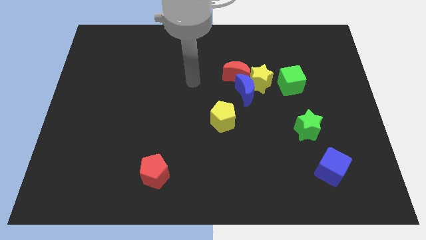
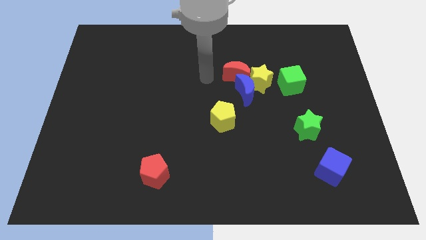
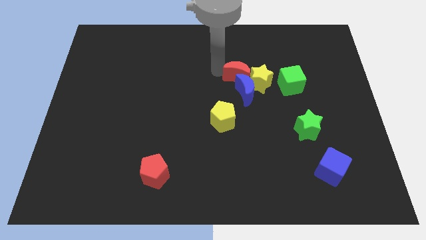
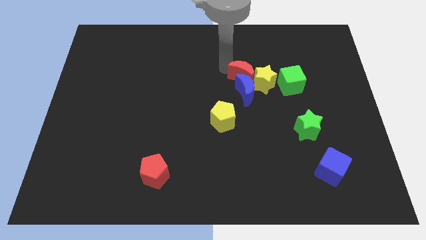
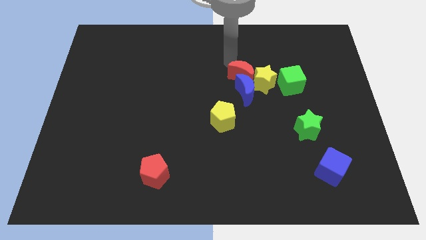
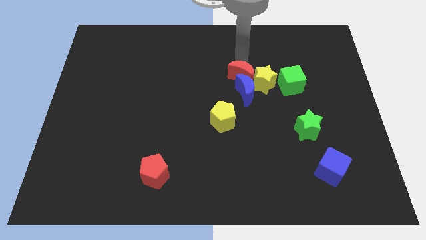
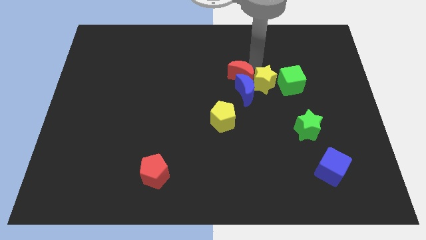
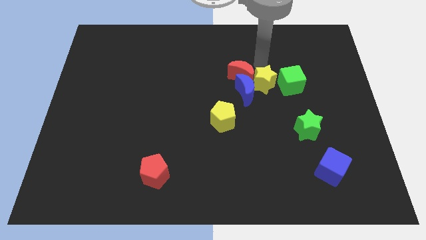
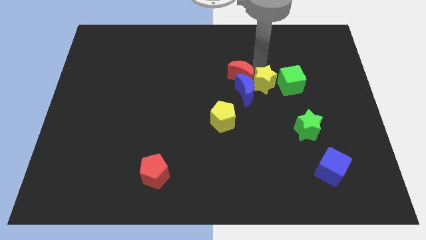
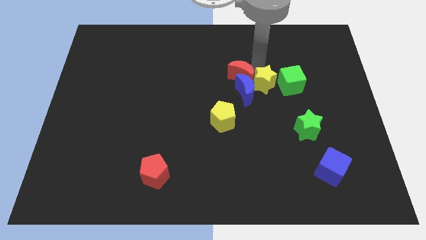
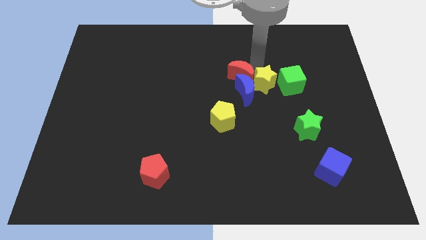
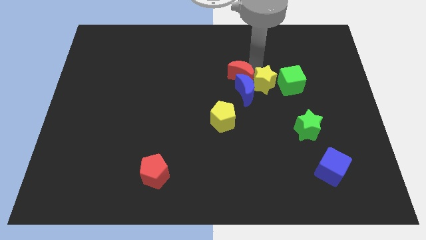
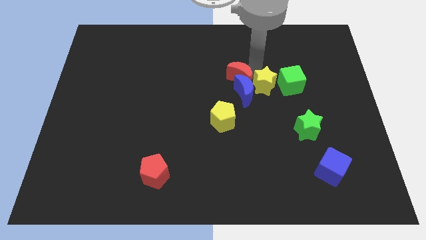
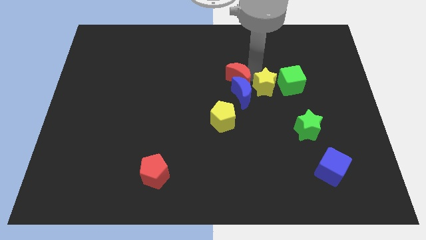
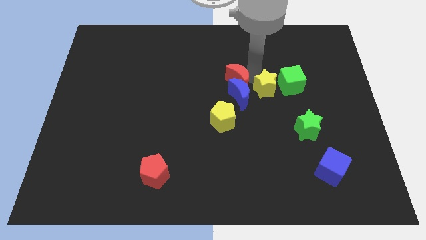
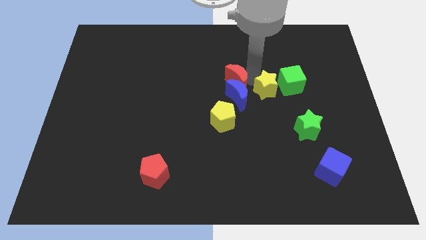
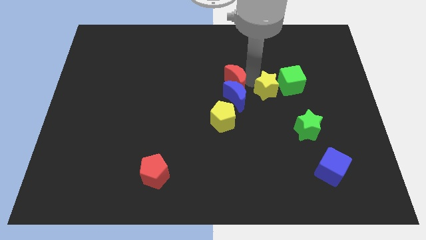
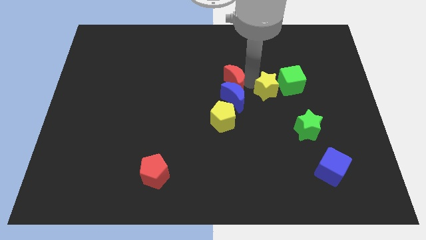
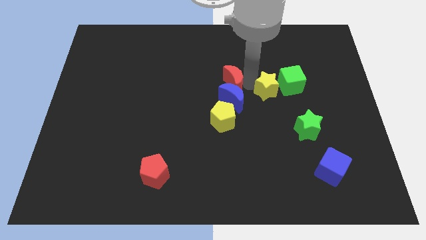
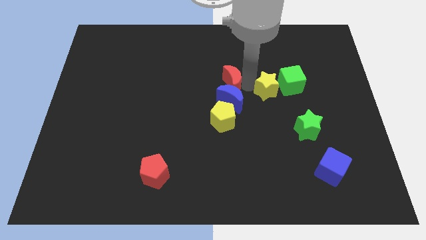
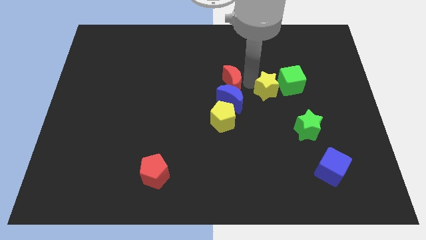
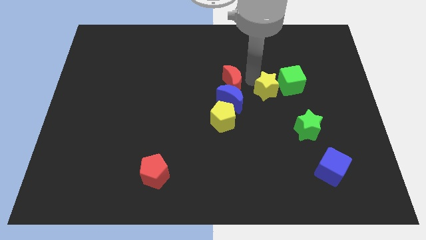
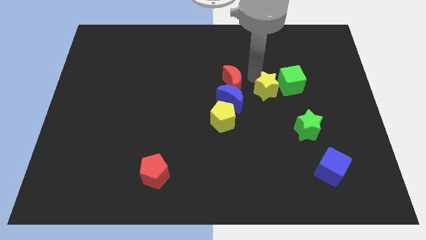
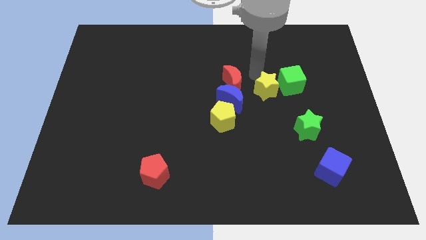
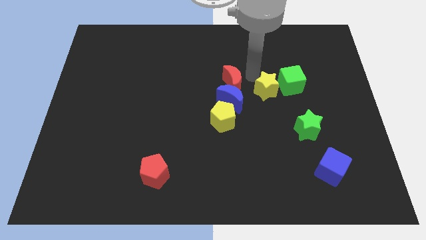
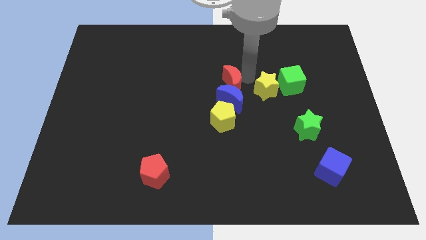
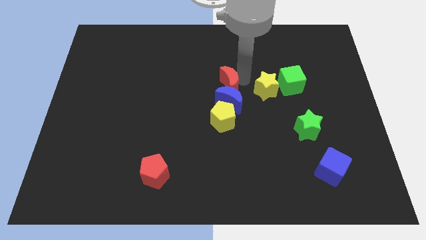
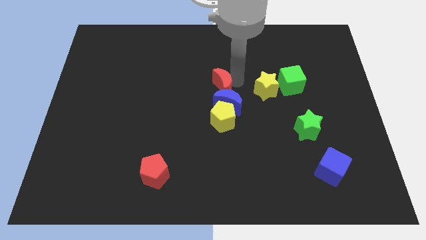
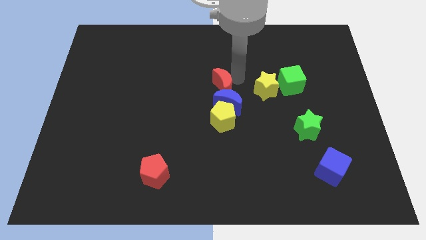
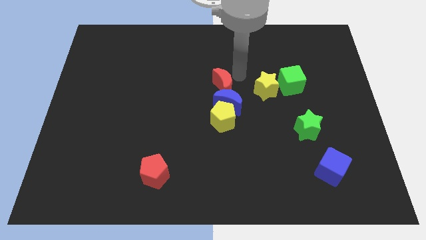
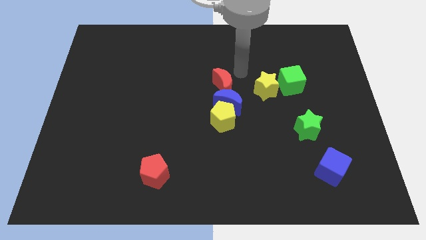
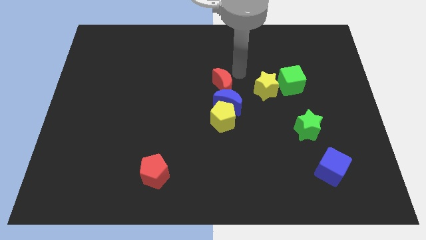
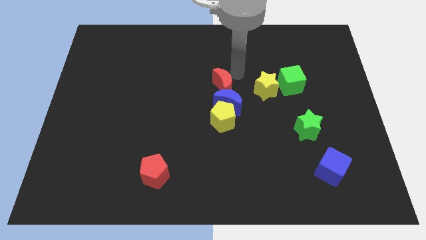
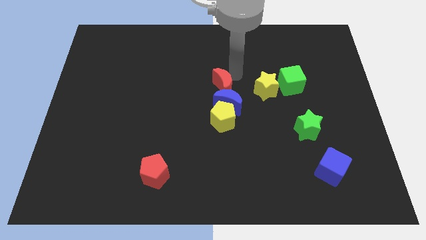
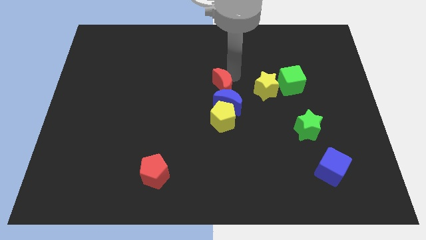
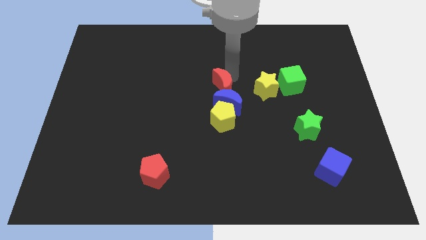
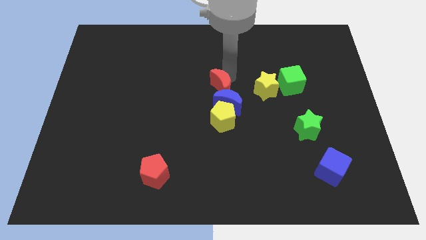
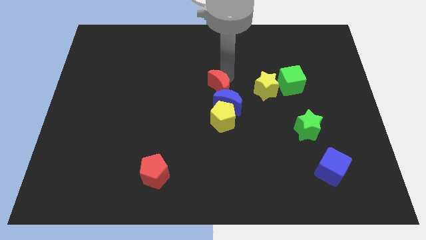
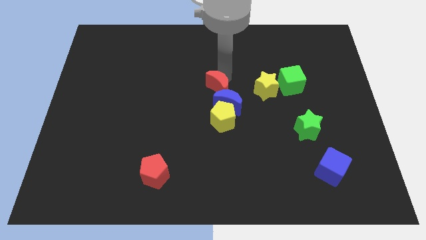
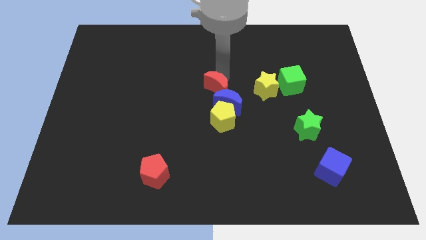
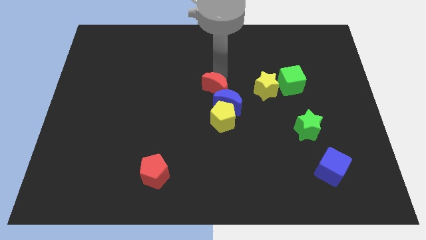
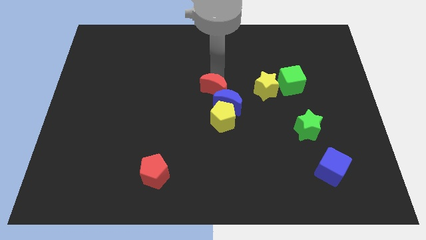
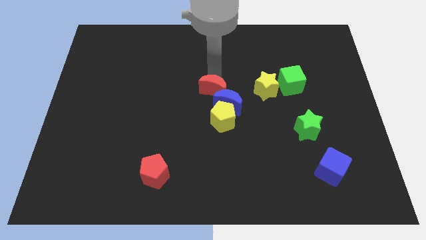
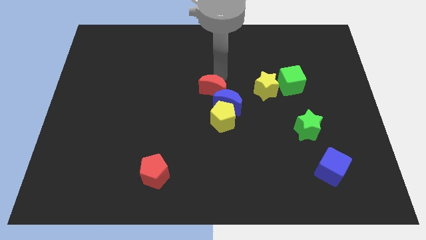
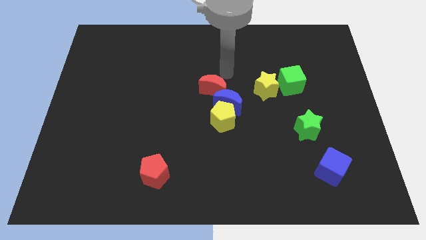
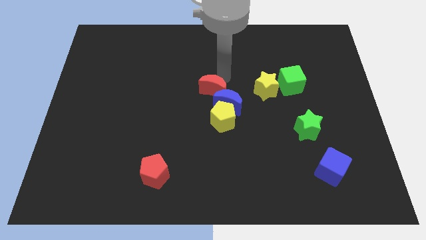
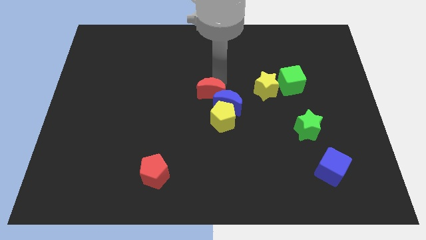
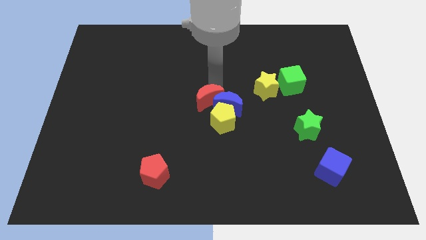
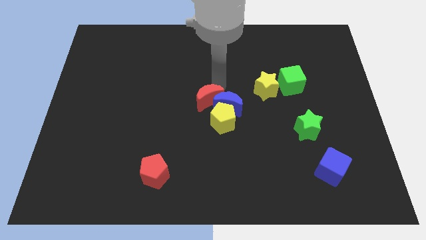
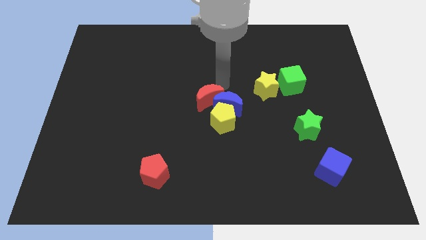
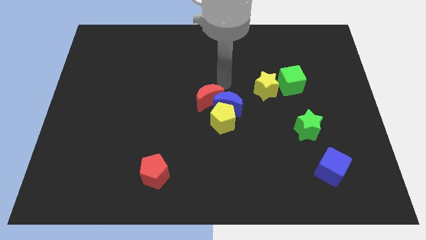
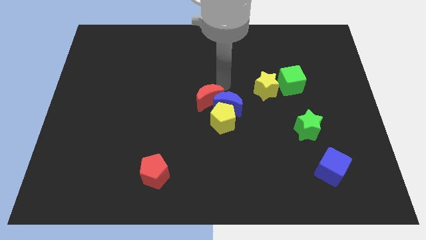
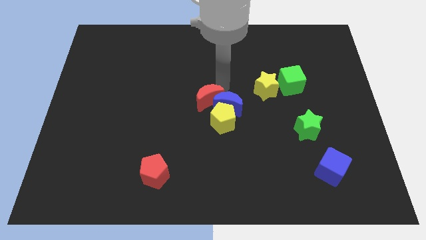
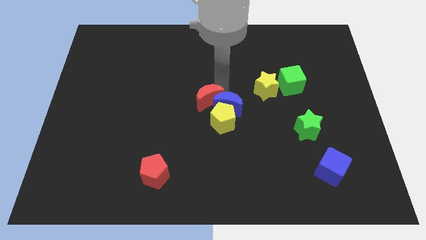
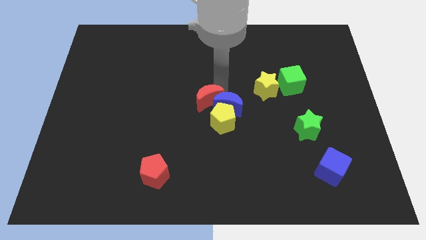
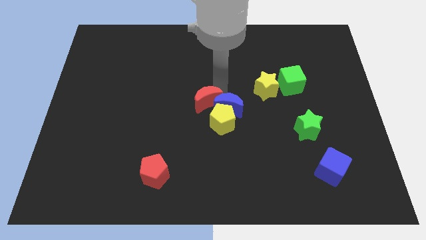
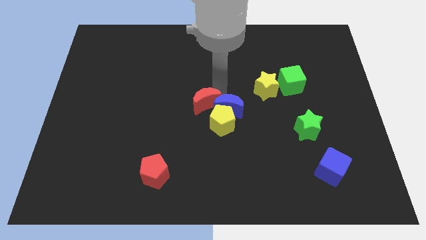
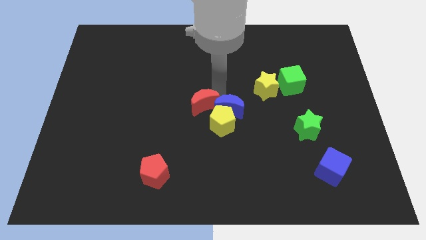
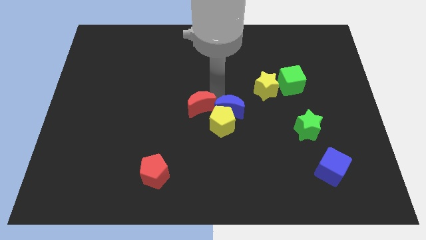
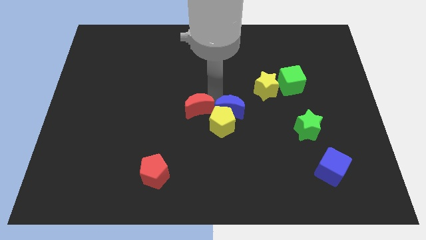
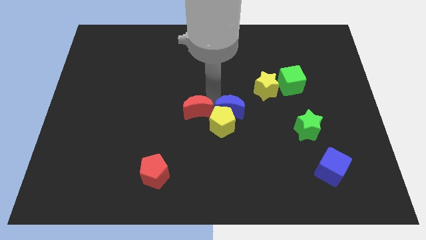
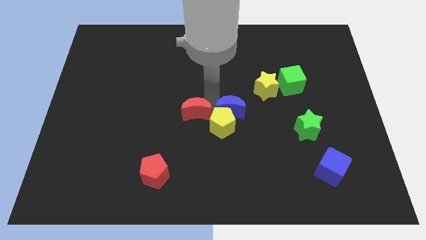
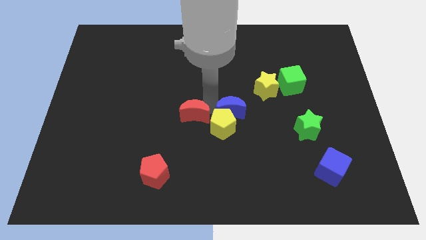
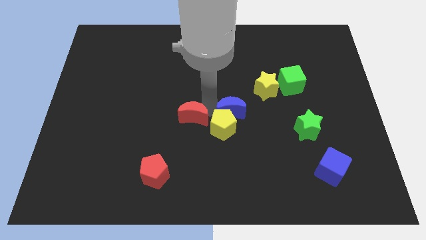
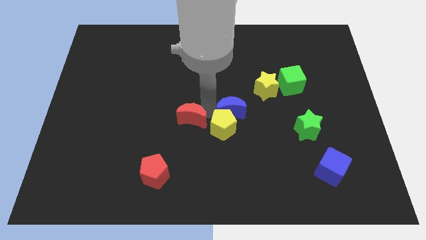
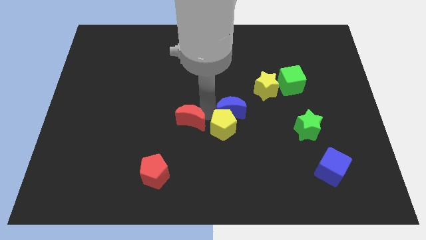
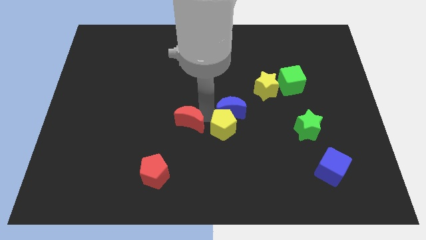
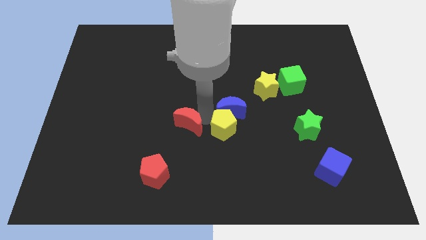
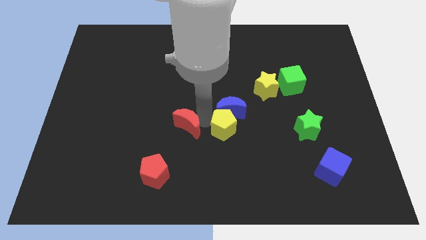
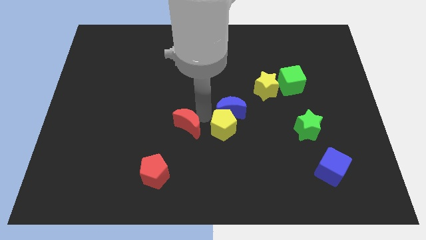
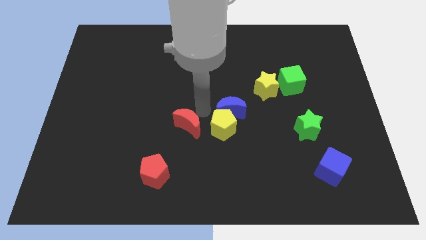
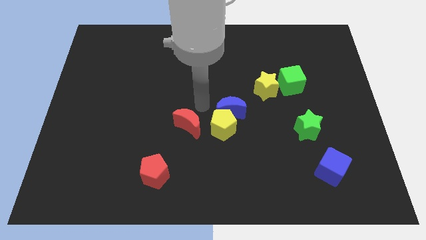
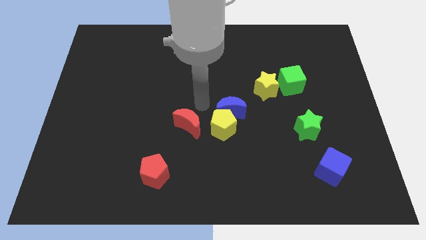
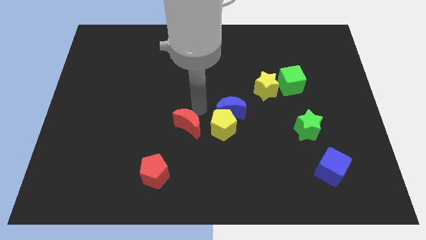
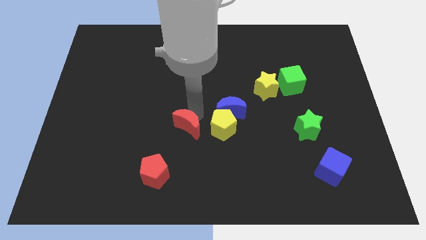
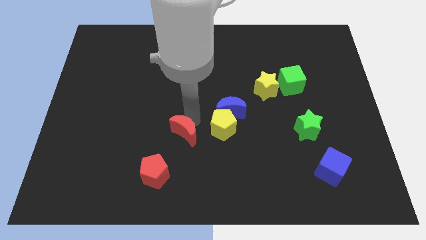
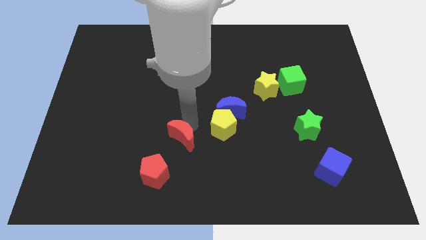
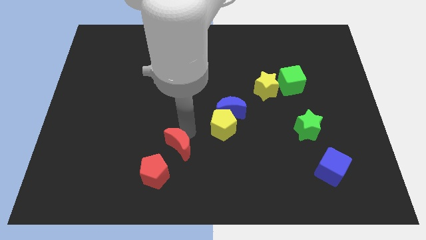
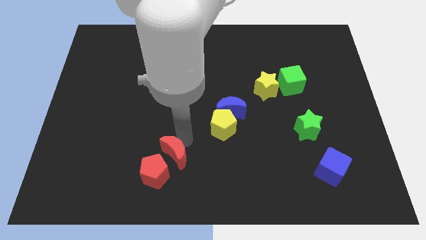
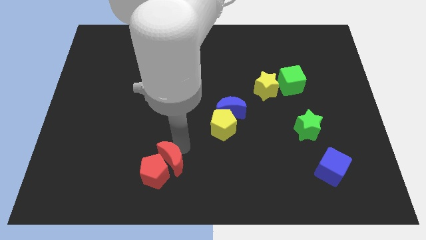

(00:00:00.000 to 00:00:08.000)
move the red moon close to the red pentagon
